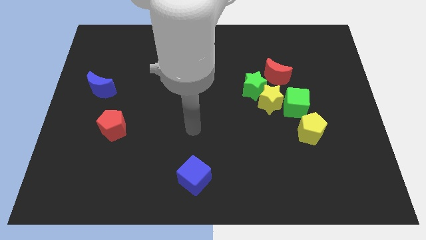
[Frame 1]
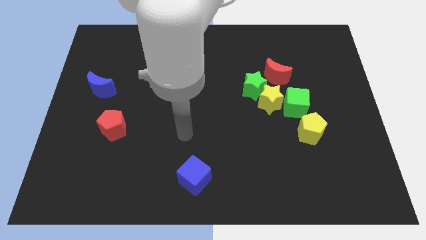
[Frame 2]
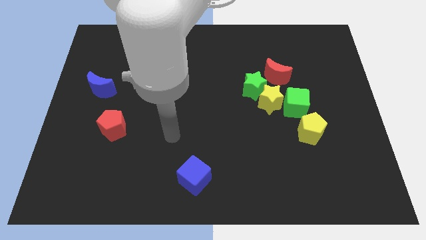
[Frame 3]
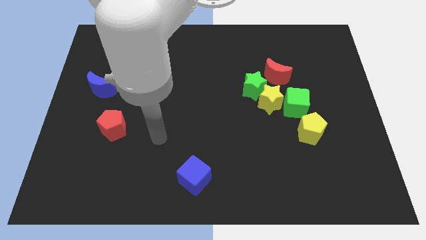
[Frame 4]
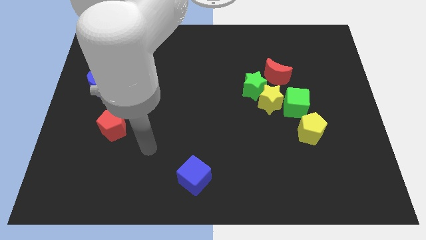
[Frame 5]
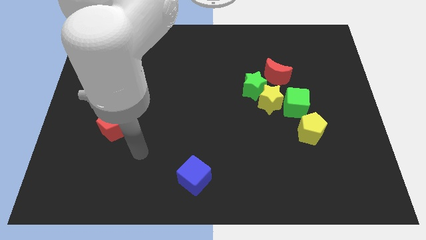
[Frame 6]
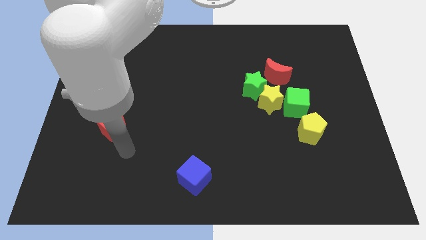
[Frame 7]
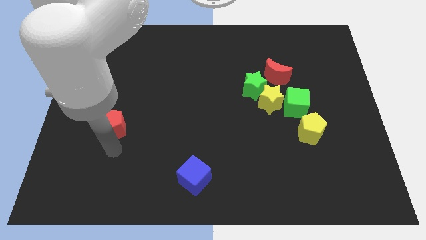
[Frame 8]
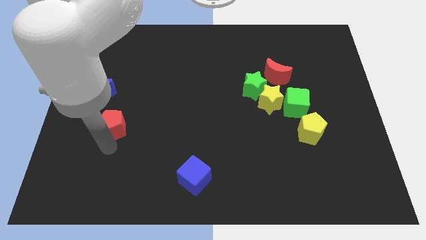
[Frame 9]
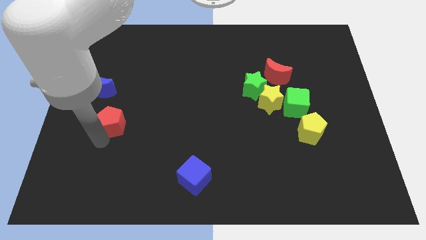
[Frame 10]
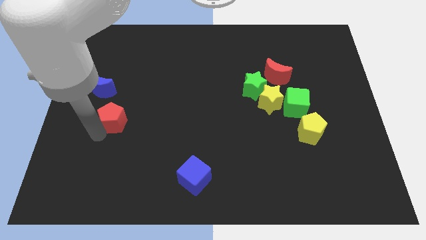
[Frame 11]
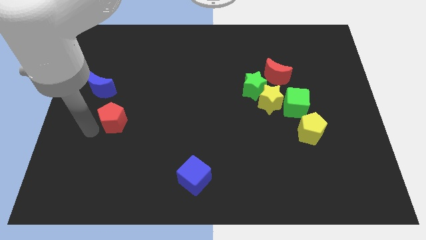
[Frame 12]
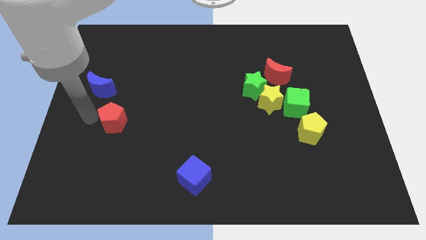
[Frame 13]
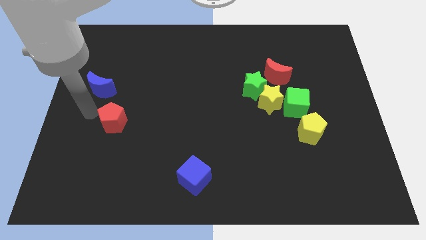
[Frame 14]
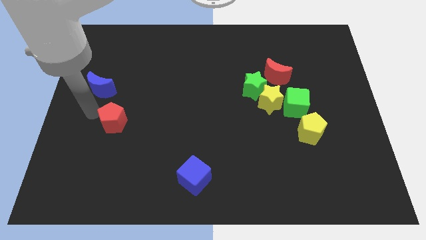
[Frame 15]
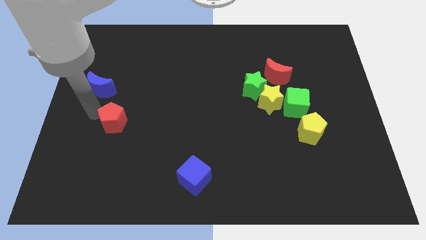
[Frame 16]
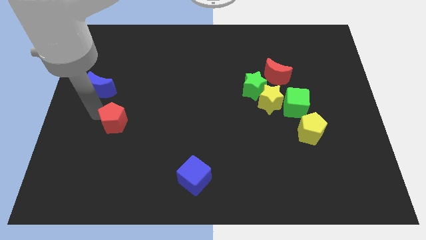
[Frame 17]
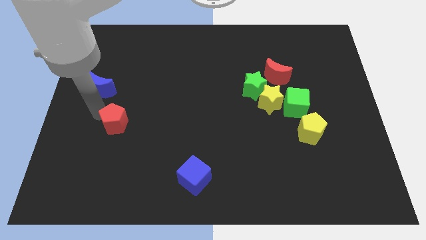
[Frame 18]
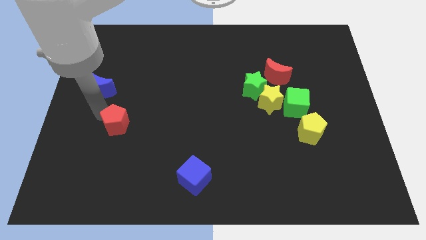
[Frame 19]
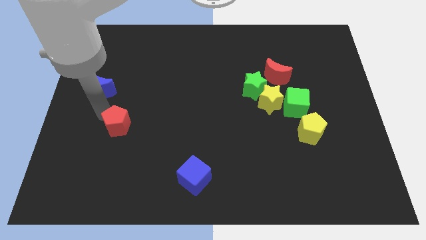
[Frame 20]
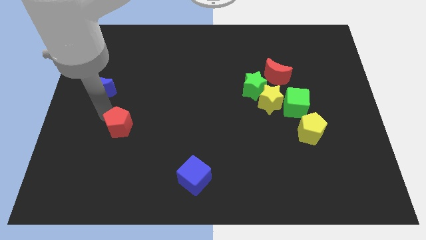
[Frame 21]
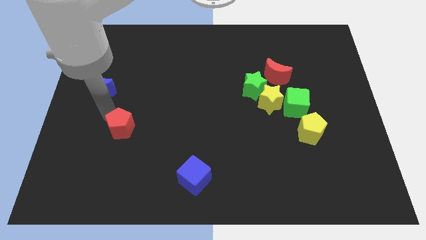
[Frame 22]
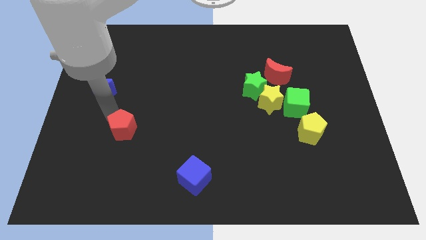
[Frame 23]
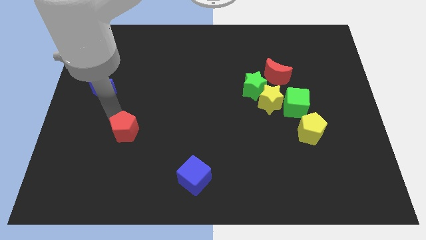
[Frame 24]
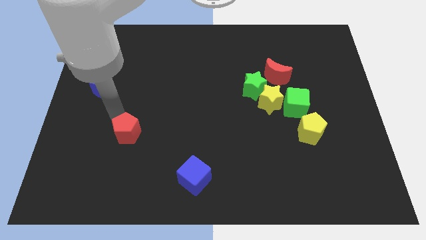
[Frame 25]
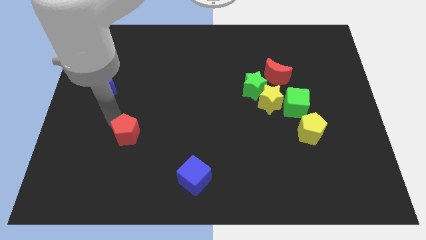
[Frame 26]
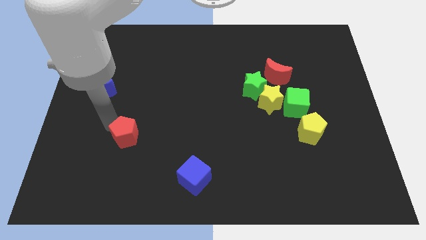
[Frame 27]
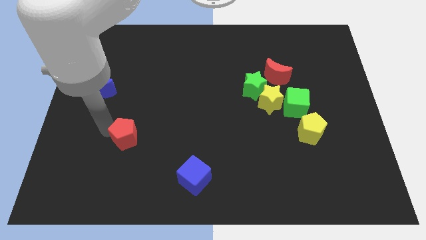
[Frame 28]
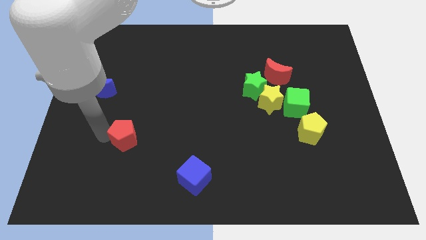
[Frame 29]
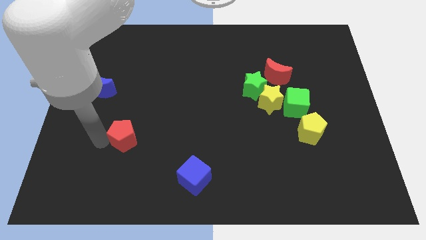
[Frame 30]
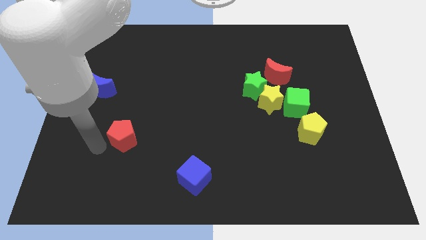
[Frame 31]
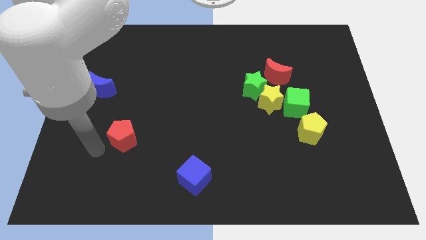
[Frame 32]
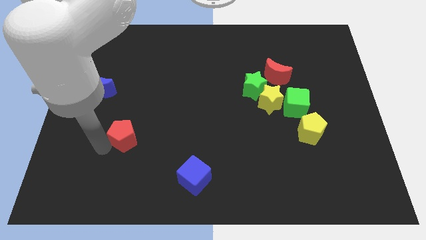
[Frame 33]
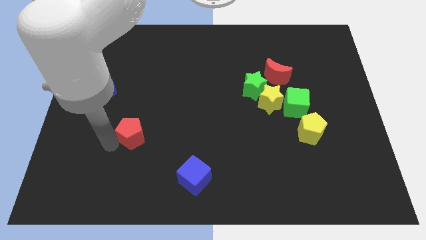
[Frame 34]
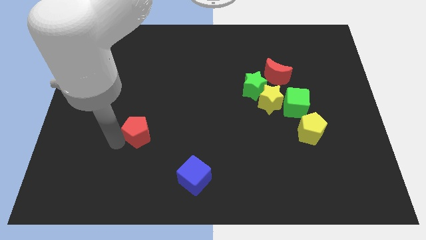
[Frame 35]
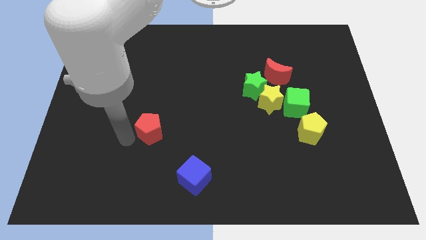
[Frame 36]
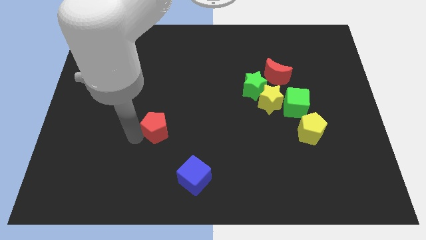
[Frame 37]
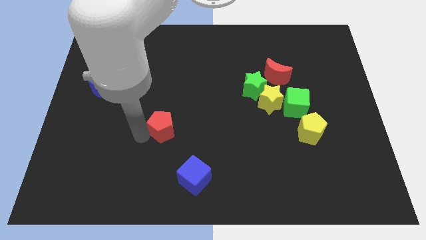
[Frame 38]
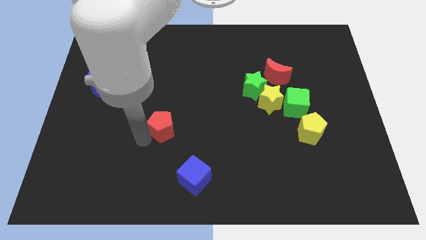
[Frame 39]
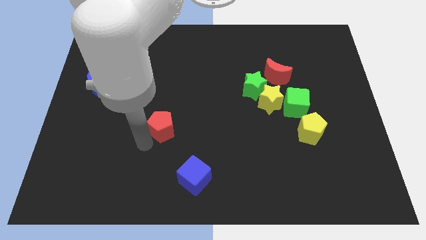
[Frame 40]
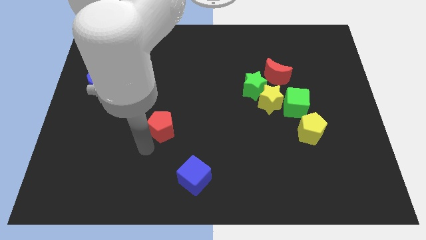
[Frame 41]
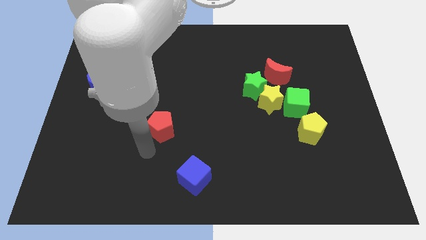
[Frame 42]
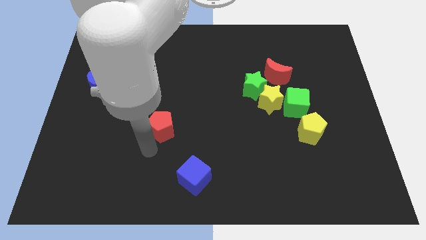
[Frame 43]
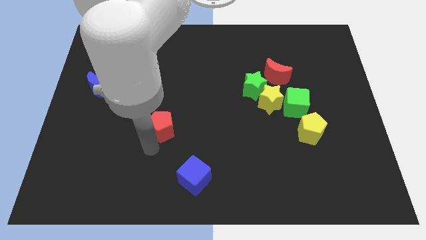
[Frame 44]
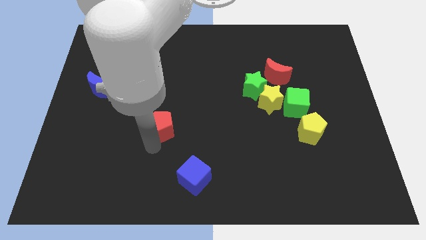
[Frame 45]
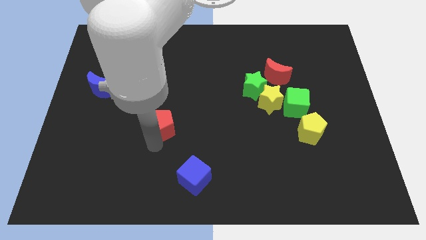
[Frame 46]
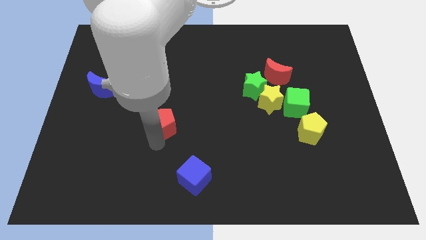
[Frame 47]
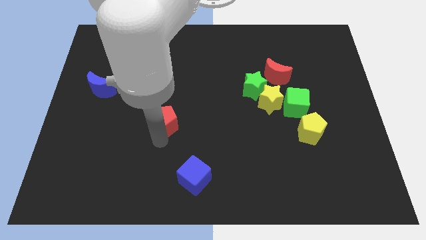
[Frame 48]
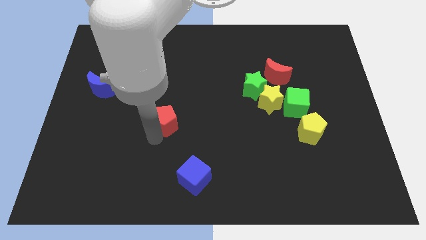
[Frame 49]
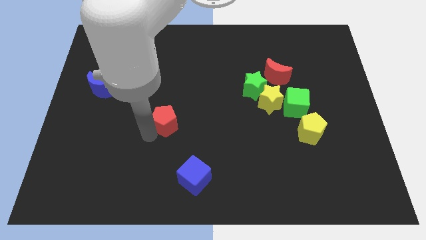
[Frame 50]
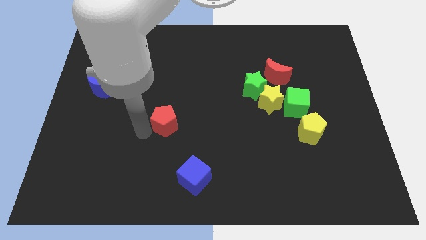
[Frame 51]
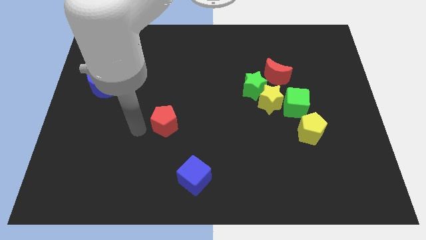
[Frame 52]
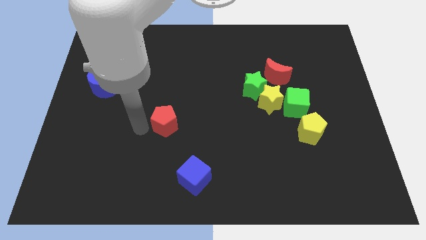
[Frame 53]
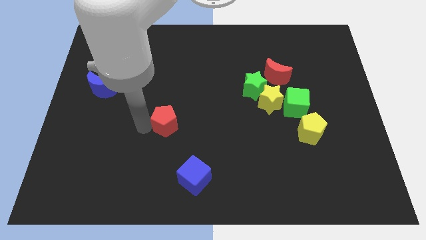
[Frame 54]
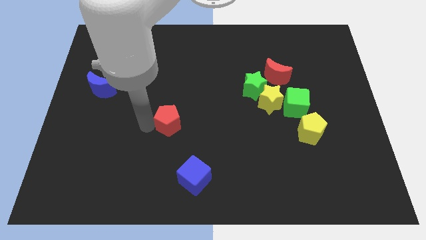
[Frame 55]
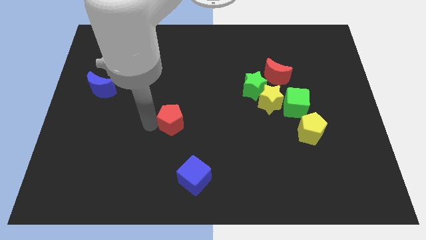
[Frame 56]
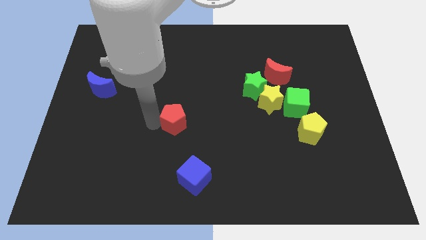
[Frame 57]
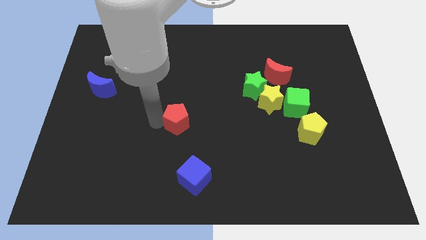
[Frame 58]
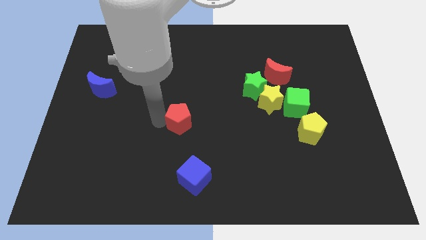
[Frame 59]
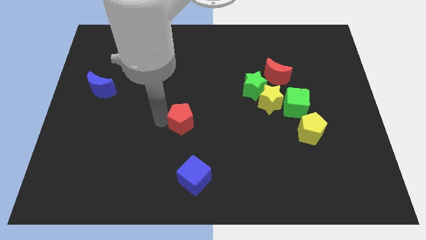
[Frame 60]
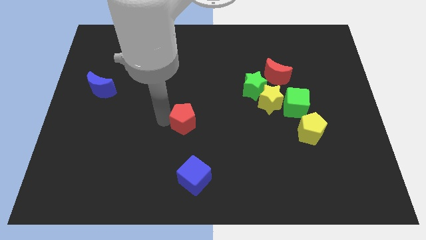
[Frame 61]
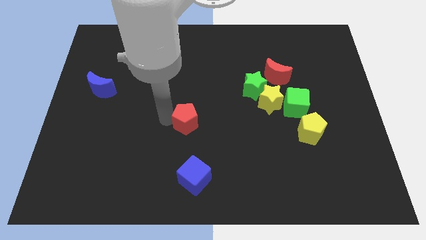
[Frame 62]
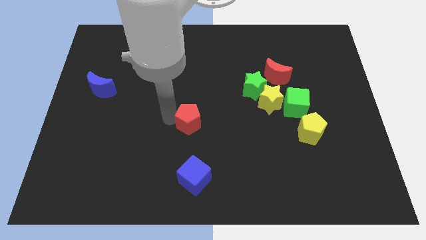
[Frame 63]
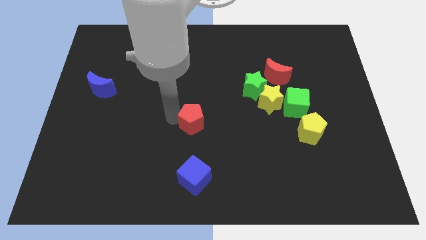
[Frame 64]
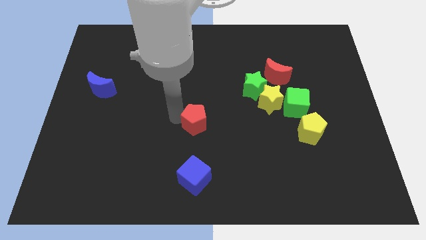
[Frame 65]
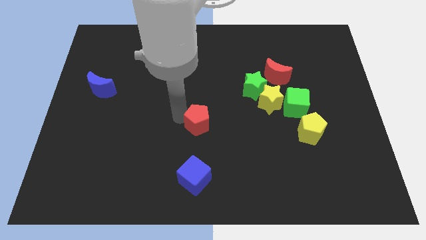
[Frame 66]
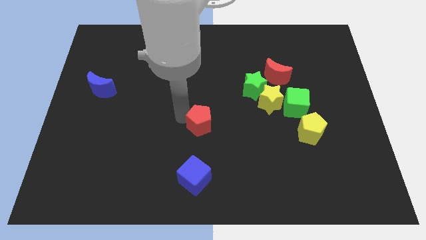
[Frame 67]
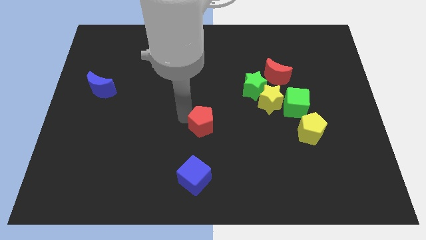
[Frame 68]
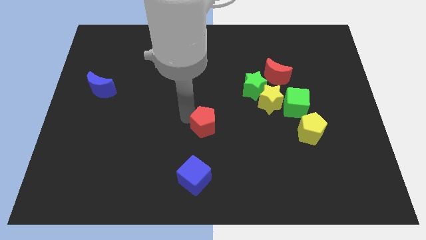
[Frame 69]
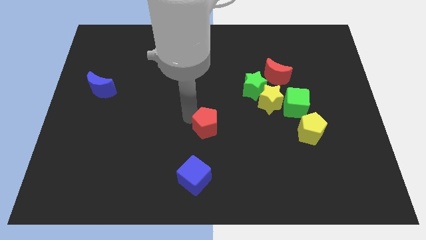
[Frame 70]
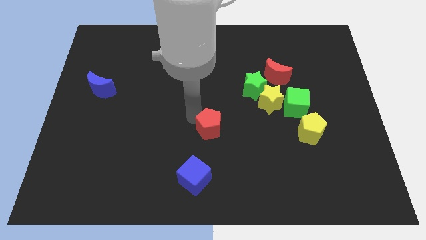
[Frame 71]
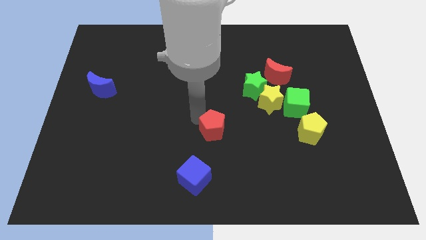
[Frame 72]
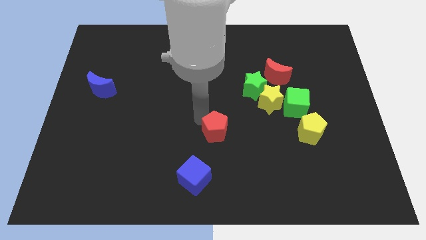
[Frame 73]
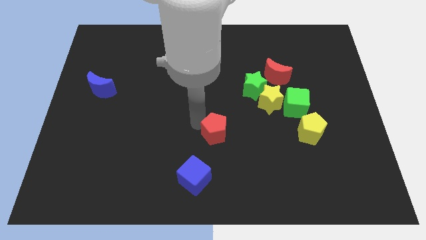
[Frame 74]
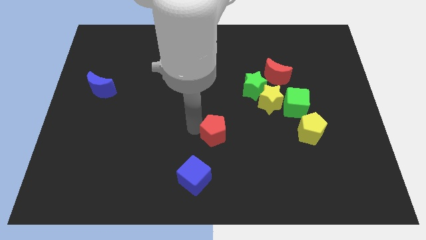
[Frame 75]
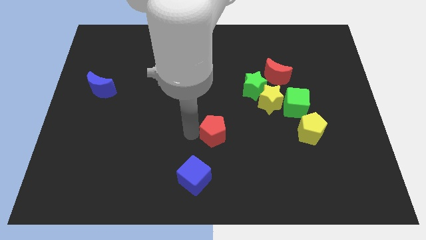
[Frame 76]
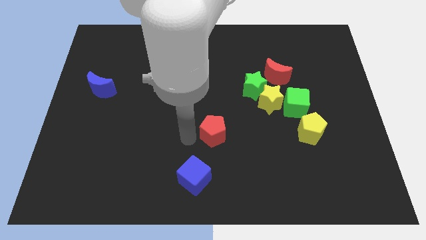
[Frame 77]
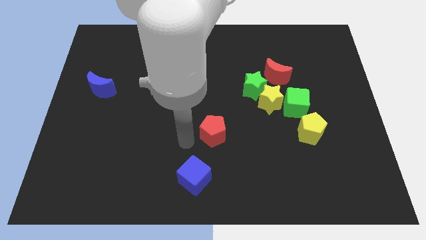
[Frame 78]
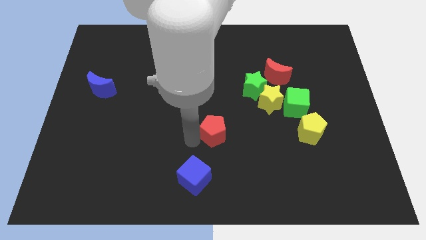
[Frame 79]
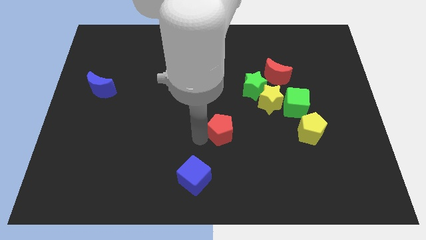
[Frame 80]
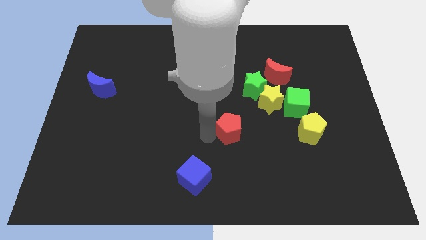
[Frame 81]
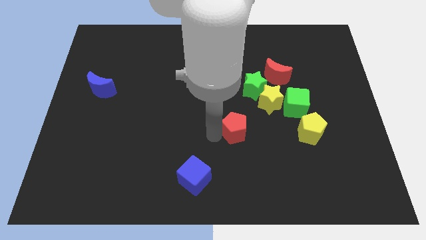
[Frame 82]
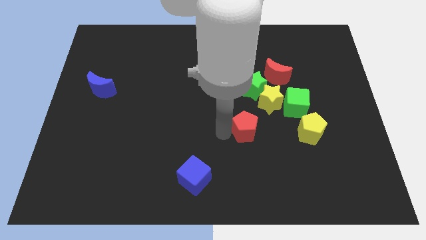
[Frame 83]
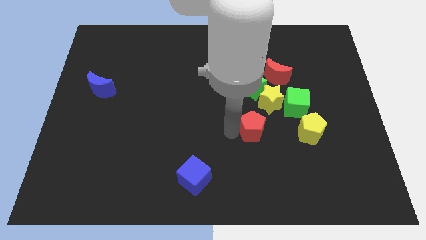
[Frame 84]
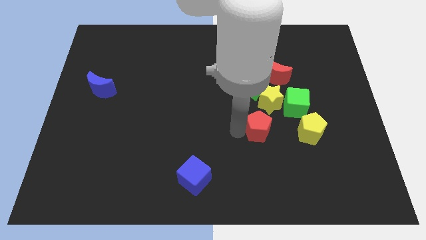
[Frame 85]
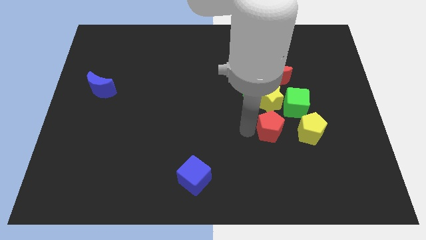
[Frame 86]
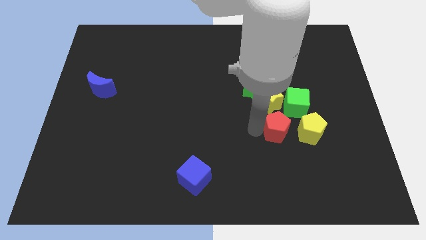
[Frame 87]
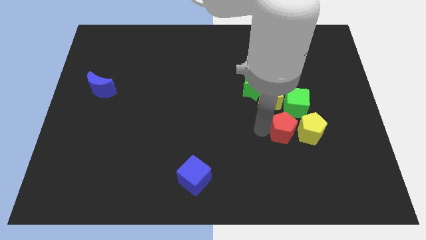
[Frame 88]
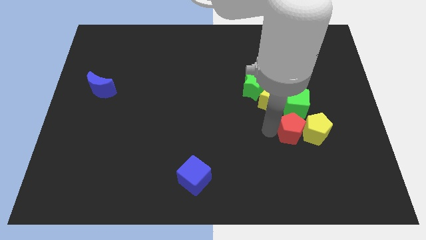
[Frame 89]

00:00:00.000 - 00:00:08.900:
slide the red pentagon towards the yellow pentagon
